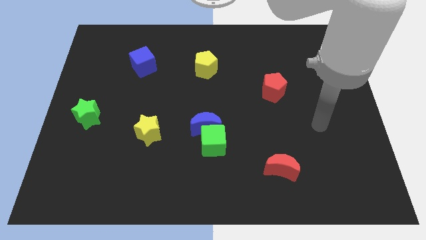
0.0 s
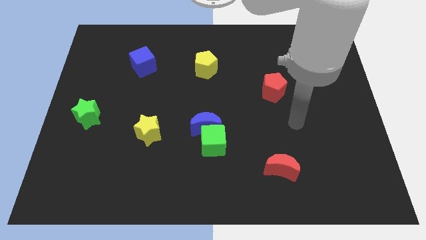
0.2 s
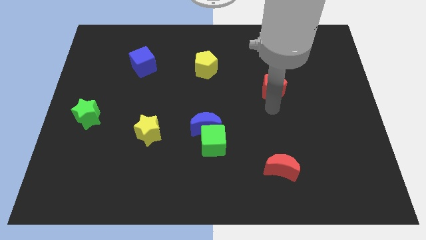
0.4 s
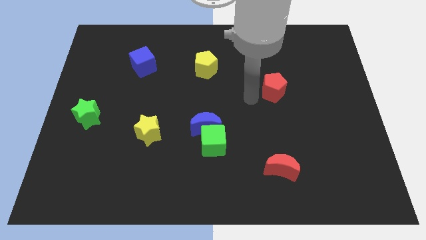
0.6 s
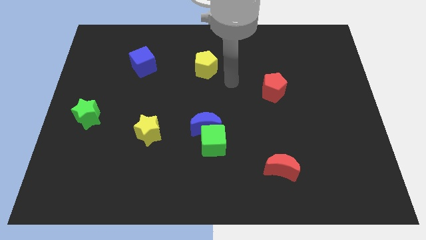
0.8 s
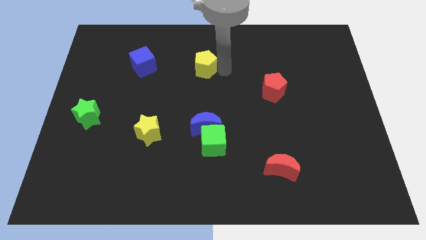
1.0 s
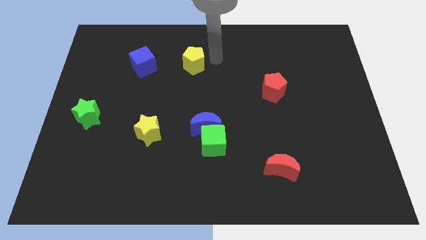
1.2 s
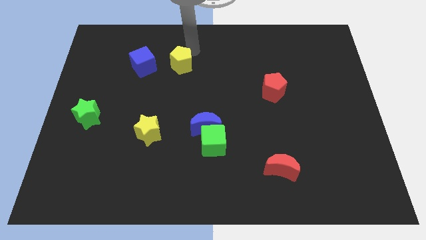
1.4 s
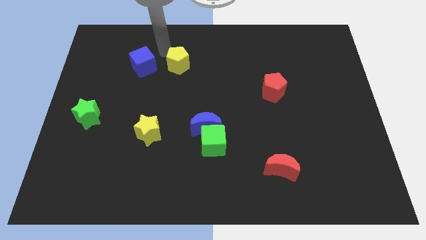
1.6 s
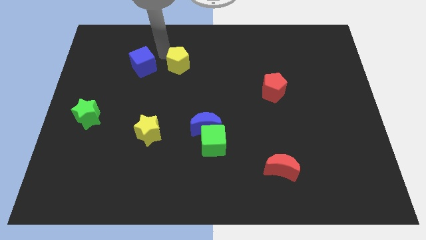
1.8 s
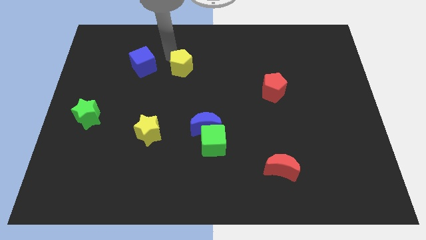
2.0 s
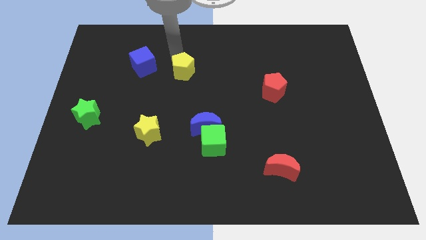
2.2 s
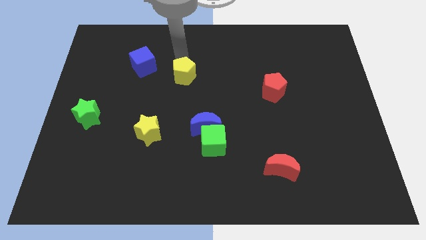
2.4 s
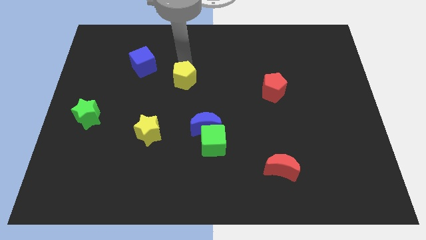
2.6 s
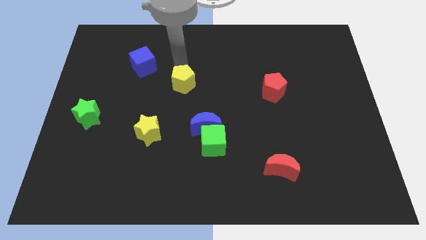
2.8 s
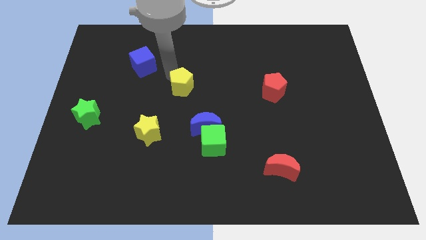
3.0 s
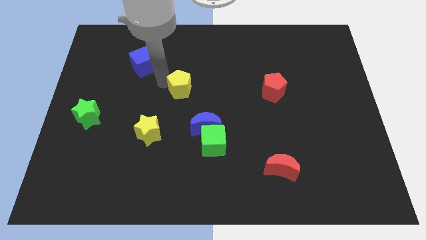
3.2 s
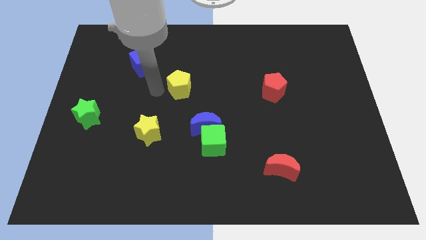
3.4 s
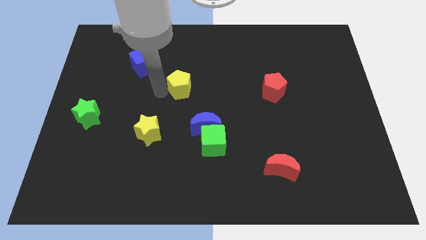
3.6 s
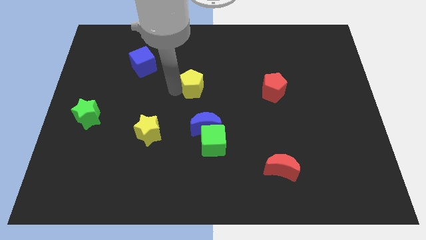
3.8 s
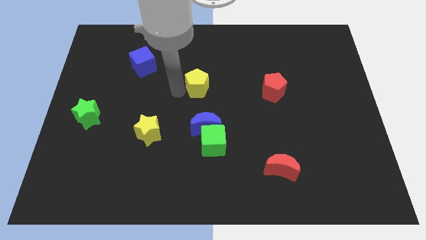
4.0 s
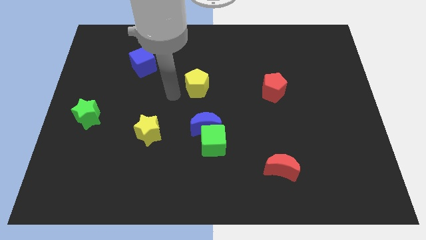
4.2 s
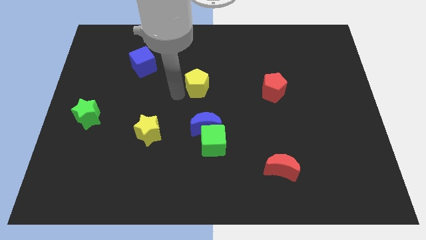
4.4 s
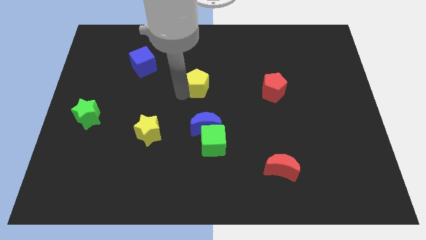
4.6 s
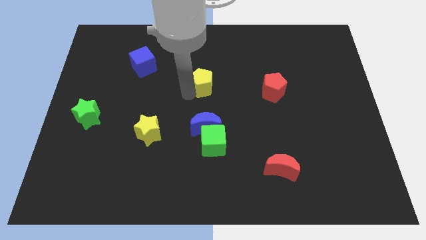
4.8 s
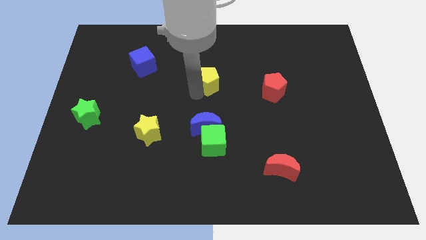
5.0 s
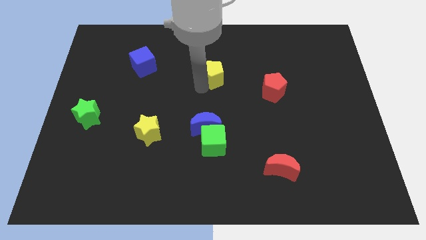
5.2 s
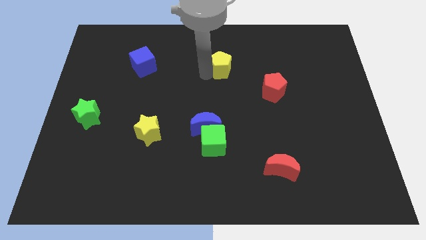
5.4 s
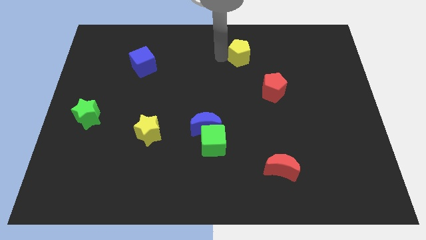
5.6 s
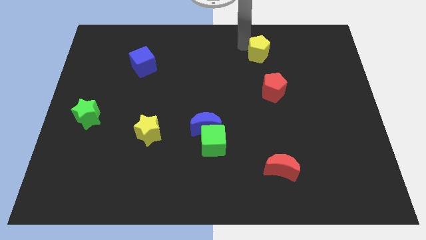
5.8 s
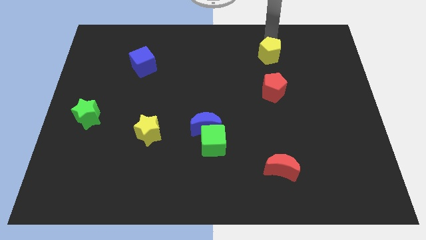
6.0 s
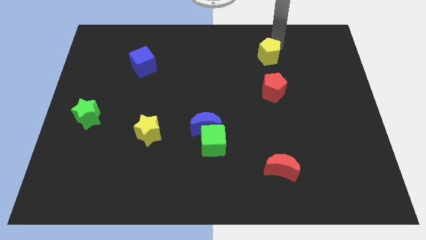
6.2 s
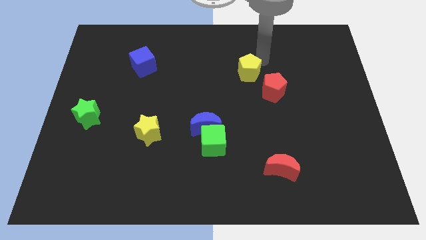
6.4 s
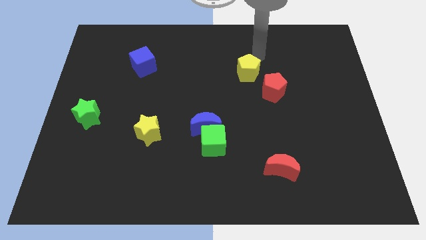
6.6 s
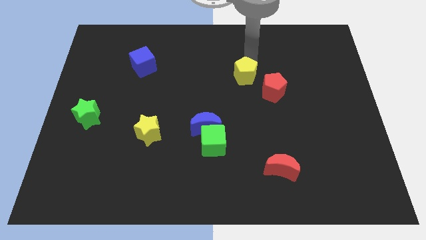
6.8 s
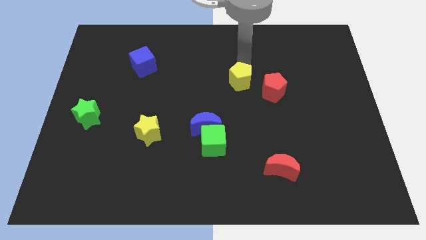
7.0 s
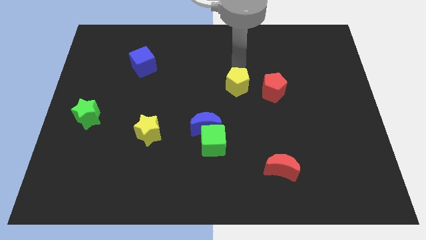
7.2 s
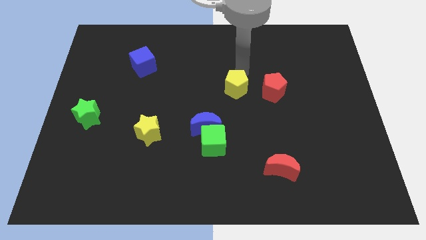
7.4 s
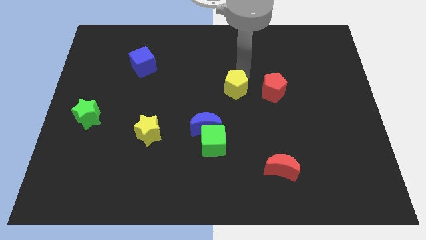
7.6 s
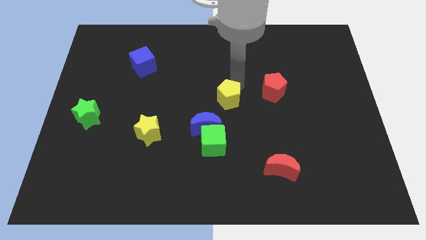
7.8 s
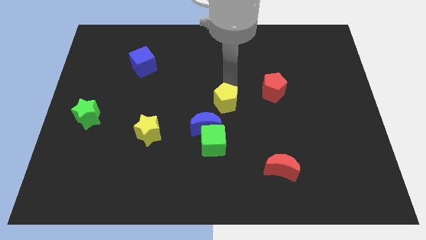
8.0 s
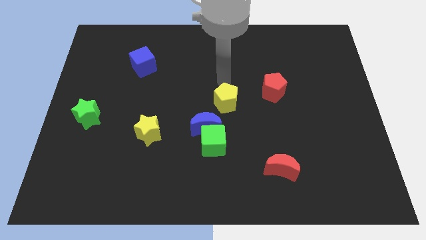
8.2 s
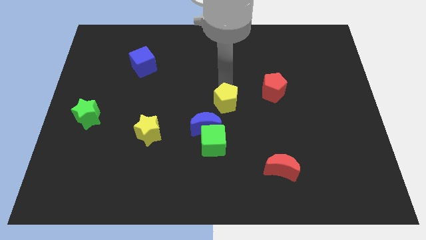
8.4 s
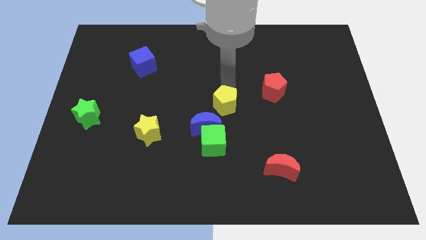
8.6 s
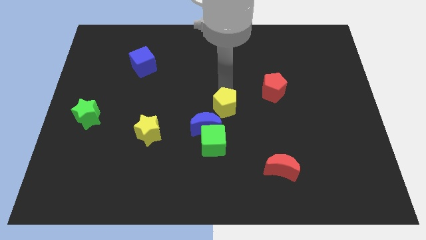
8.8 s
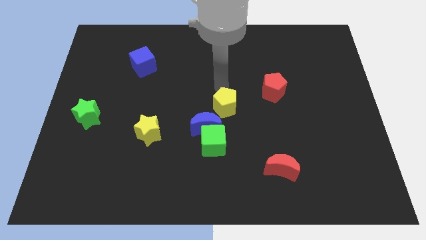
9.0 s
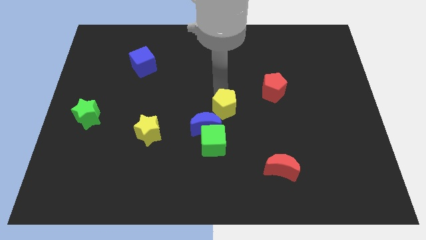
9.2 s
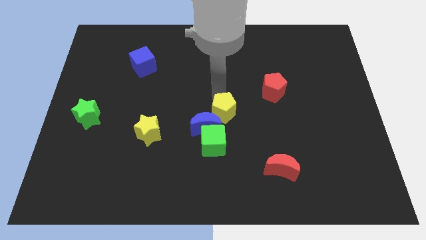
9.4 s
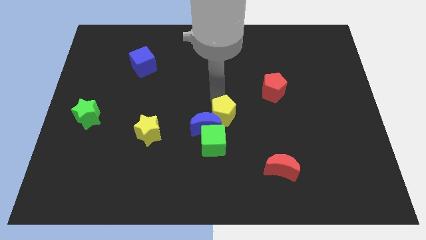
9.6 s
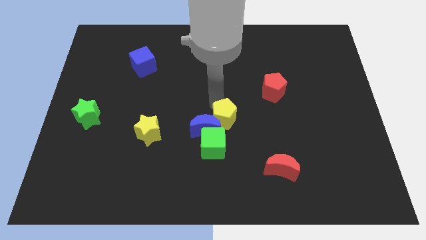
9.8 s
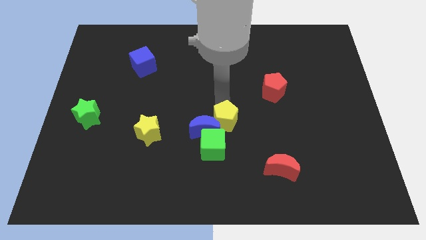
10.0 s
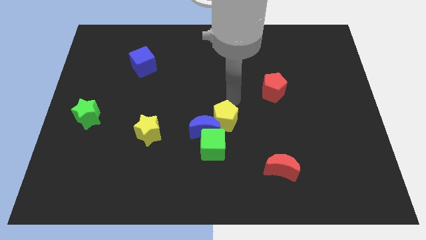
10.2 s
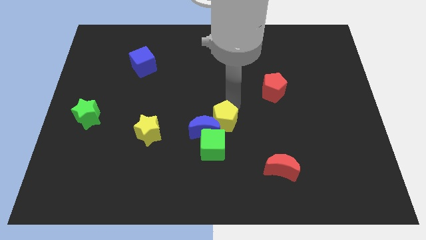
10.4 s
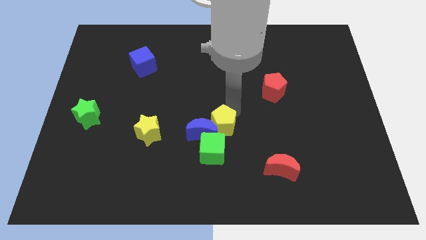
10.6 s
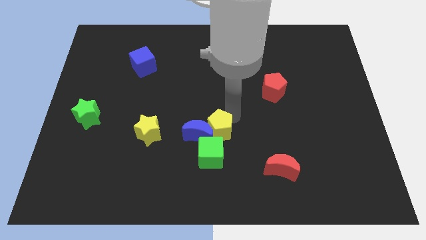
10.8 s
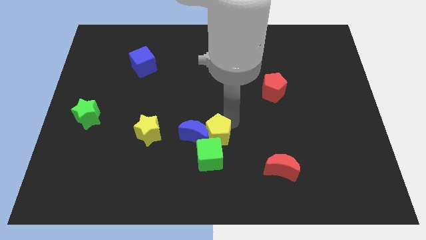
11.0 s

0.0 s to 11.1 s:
slide the yellow pentagon to the green cube

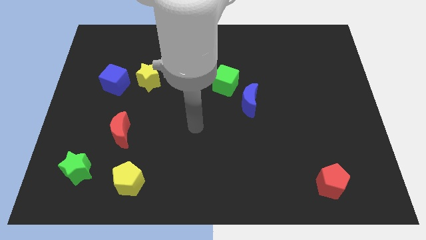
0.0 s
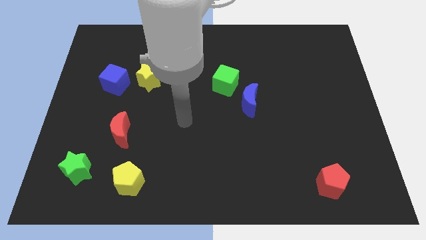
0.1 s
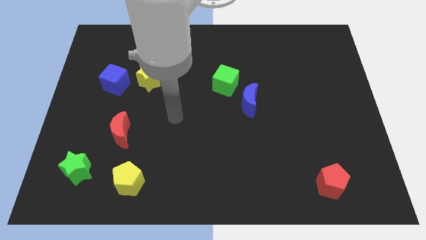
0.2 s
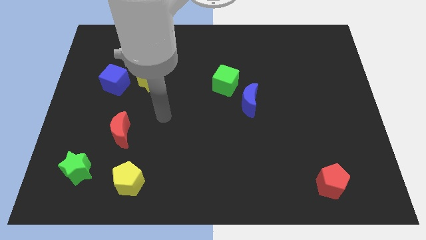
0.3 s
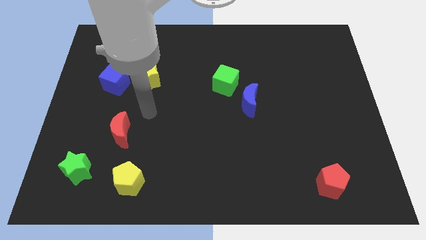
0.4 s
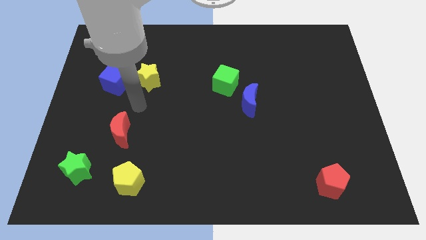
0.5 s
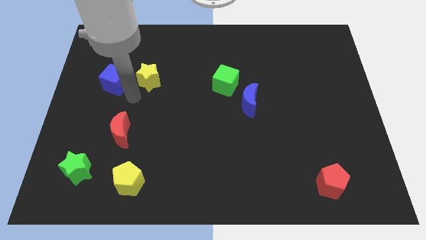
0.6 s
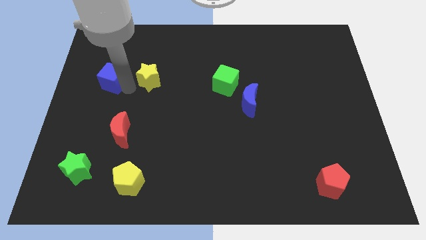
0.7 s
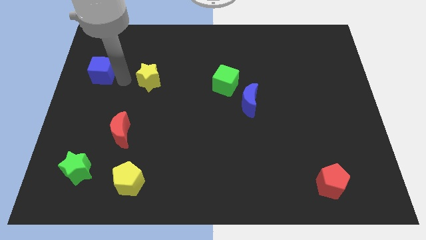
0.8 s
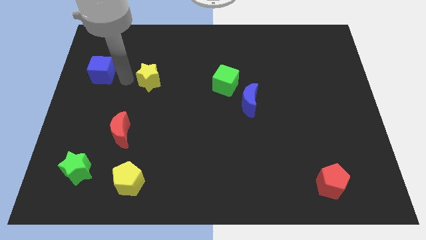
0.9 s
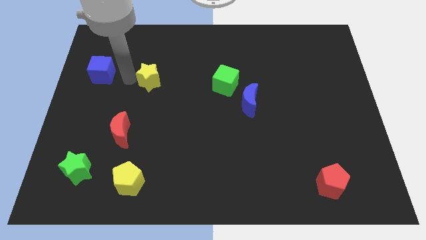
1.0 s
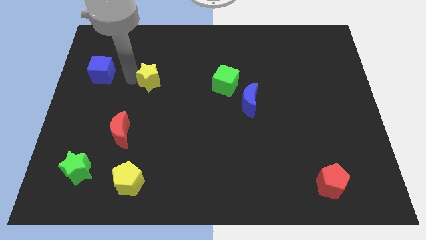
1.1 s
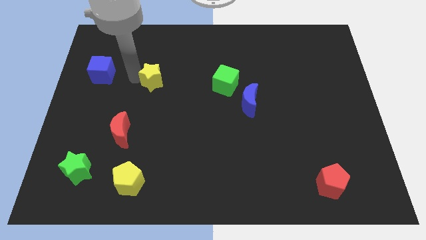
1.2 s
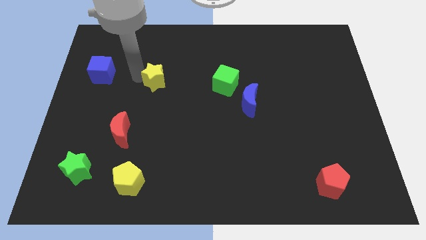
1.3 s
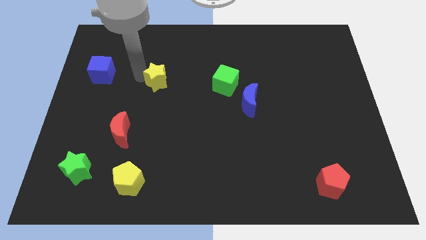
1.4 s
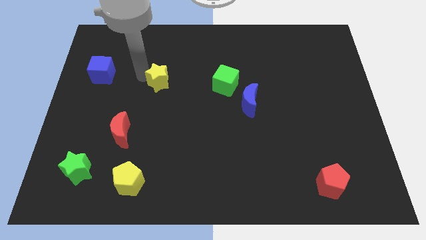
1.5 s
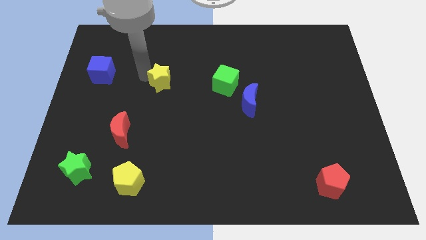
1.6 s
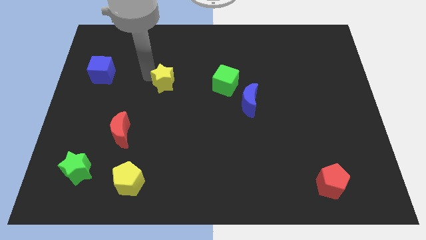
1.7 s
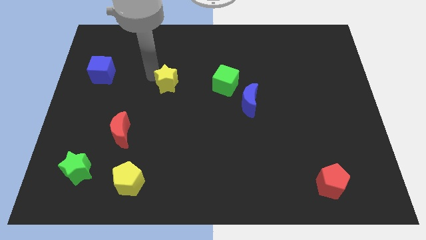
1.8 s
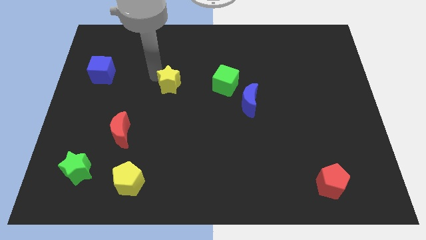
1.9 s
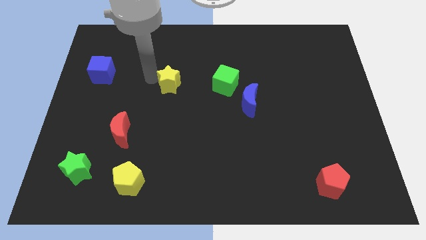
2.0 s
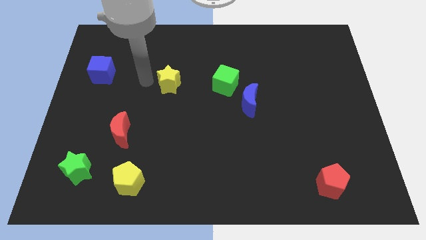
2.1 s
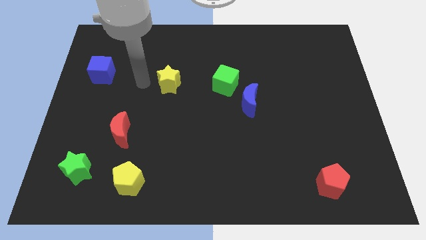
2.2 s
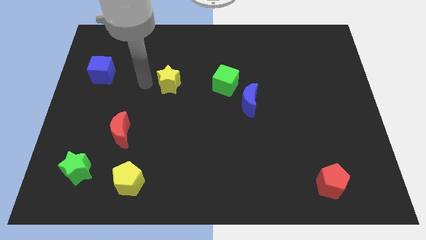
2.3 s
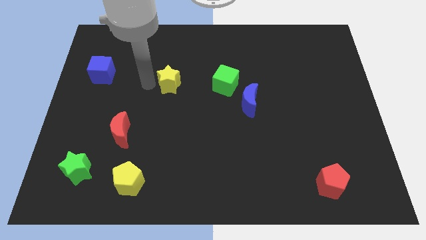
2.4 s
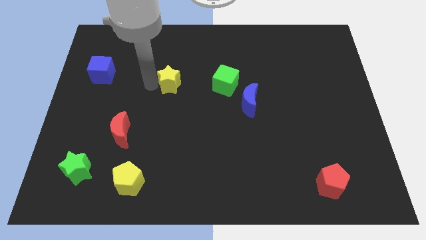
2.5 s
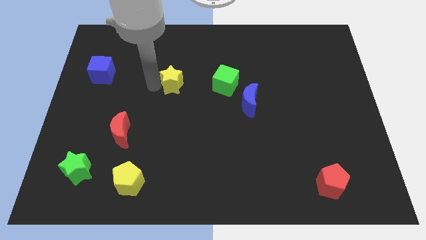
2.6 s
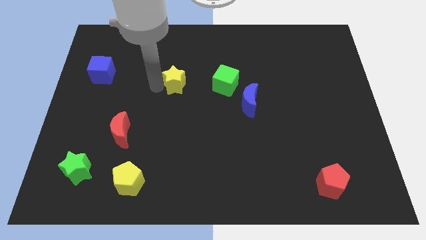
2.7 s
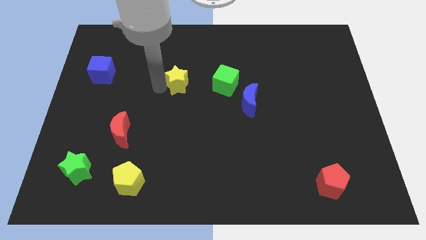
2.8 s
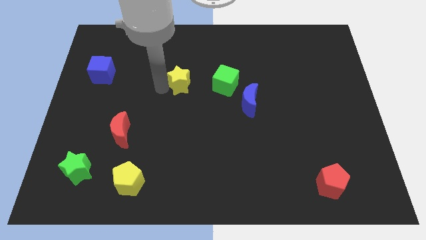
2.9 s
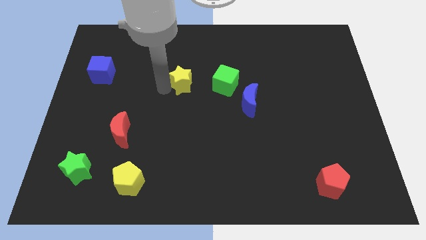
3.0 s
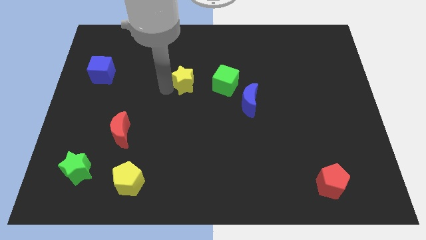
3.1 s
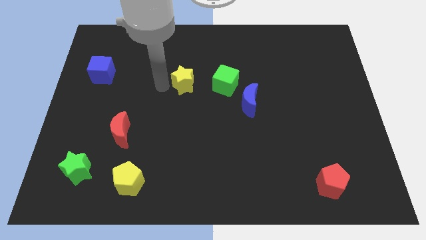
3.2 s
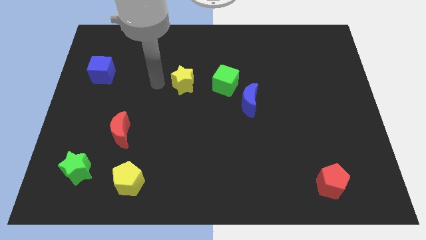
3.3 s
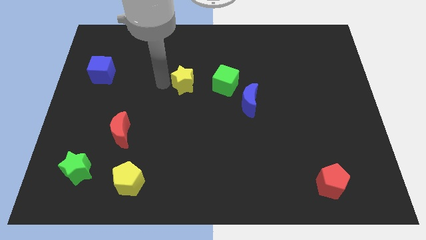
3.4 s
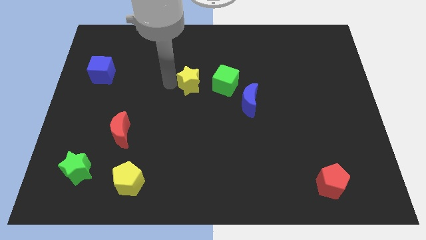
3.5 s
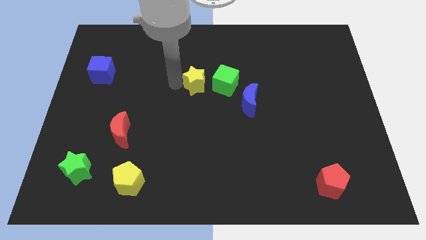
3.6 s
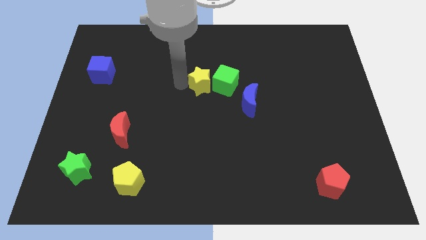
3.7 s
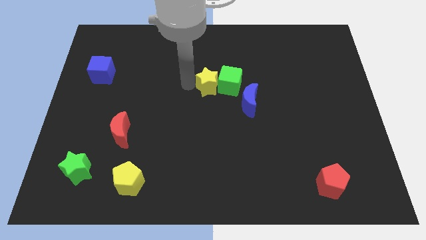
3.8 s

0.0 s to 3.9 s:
move the yellow star towards the green cube
